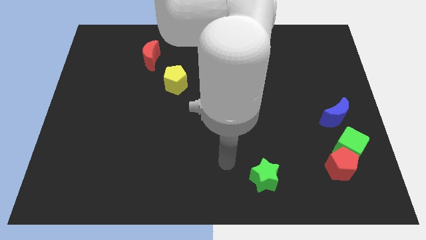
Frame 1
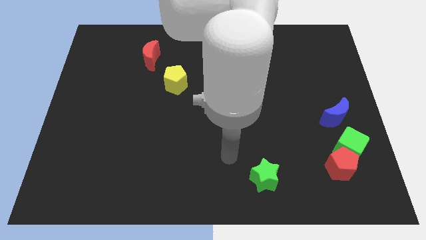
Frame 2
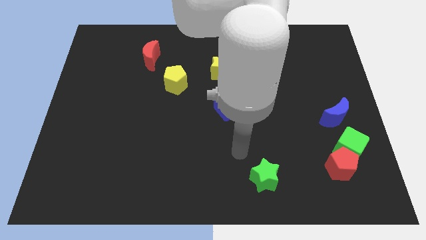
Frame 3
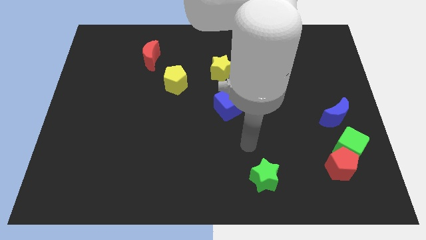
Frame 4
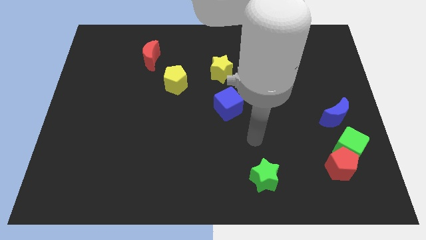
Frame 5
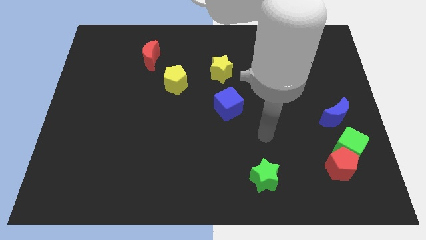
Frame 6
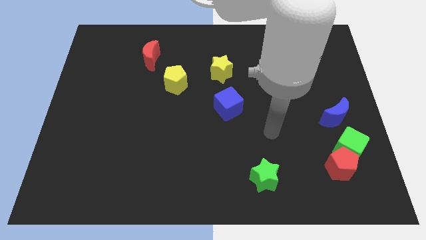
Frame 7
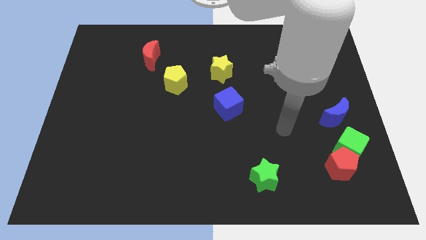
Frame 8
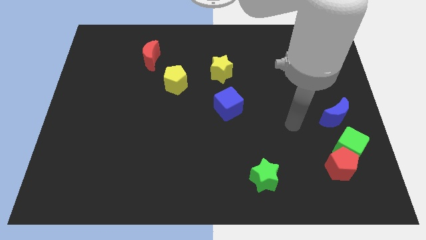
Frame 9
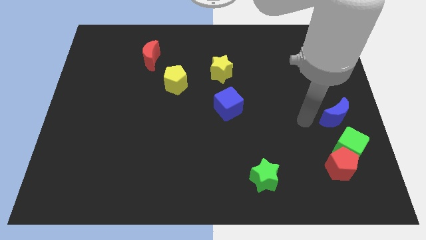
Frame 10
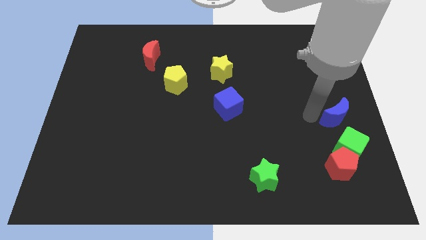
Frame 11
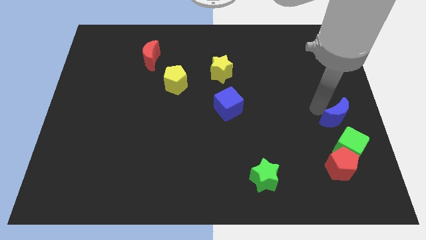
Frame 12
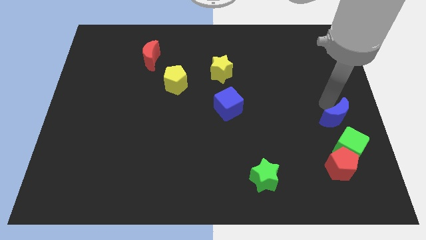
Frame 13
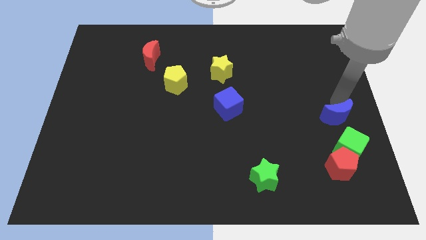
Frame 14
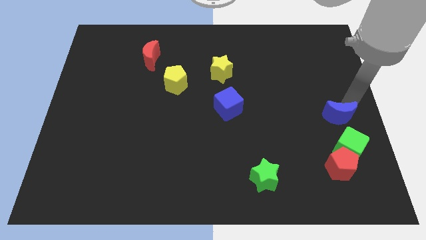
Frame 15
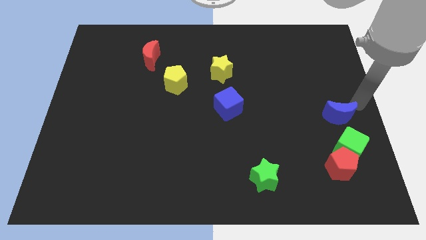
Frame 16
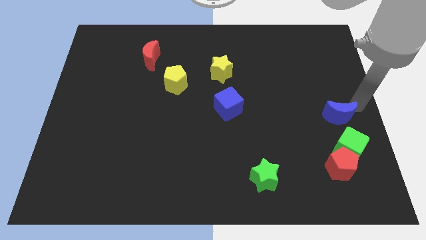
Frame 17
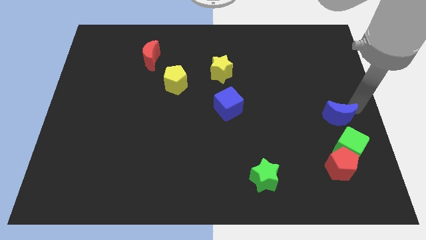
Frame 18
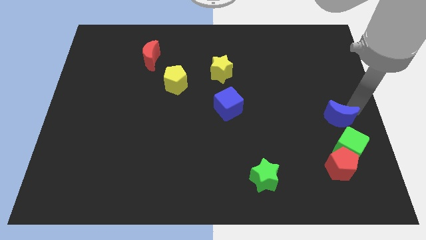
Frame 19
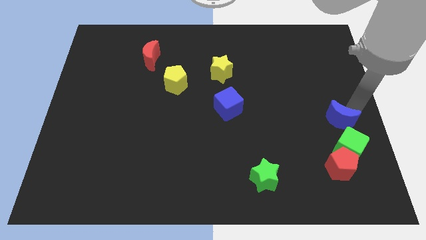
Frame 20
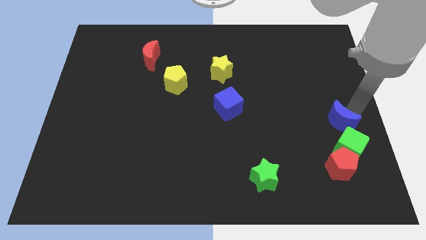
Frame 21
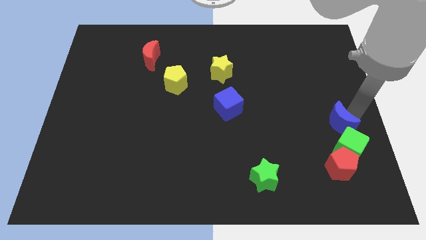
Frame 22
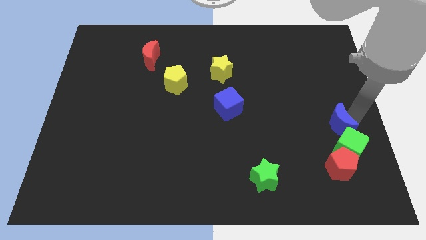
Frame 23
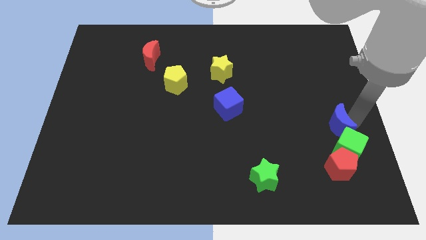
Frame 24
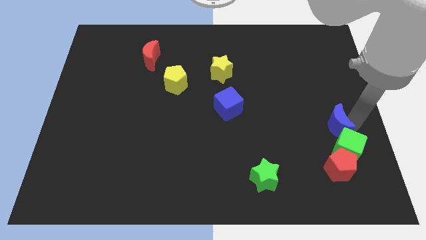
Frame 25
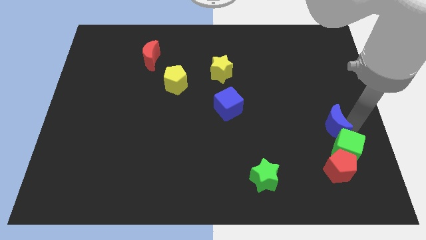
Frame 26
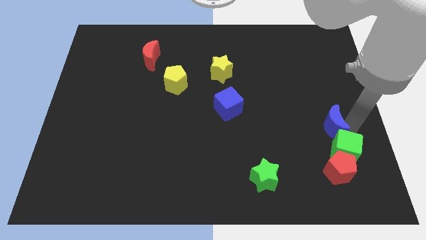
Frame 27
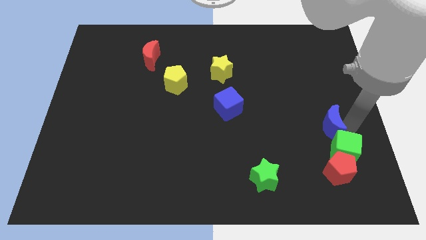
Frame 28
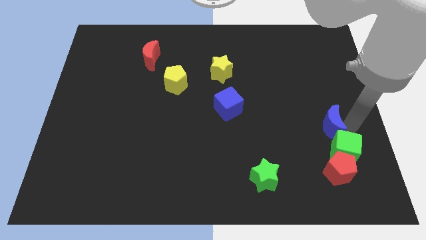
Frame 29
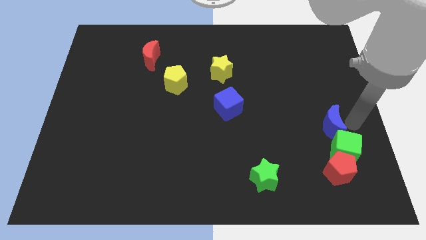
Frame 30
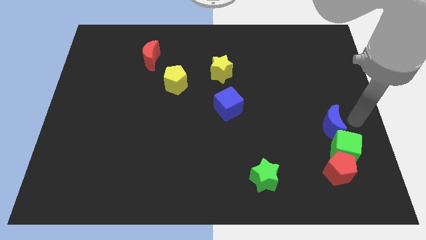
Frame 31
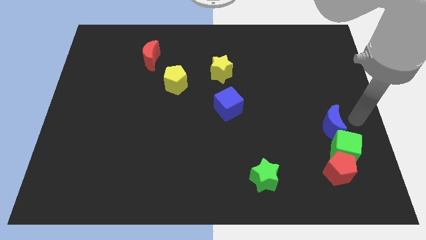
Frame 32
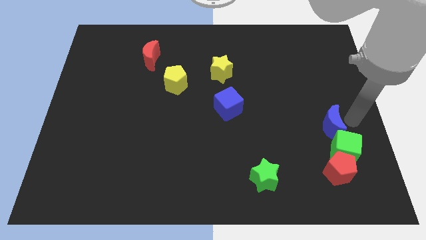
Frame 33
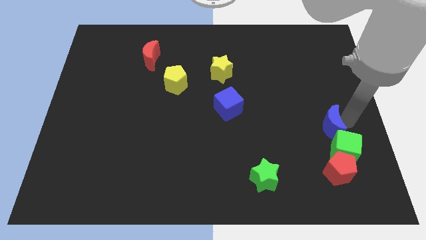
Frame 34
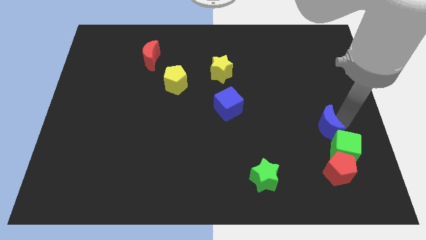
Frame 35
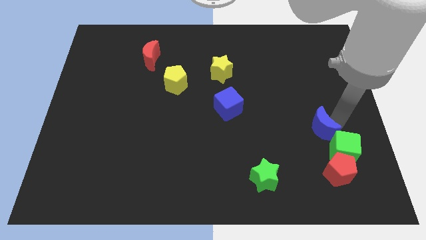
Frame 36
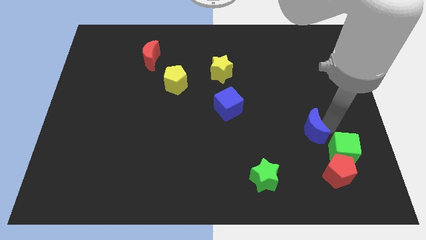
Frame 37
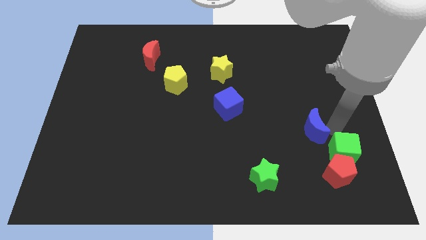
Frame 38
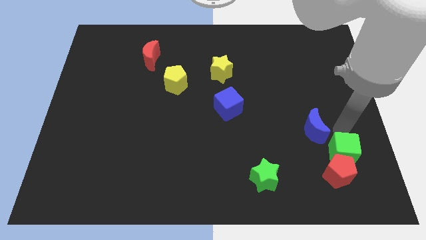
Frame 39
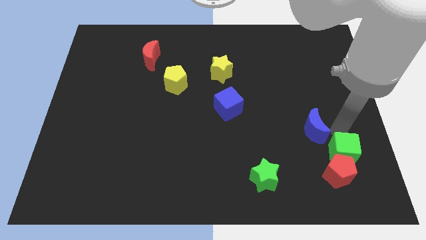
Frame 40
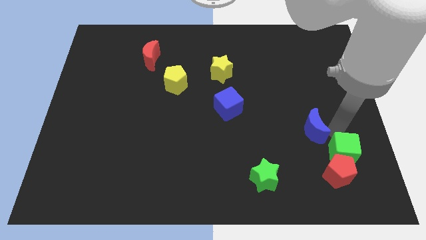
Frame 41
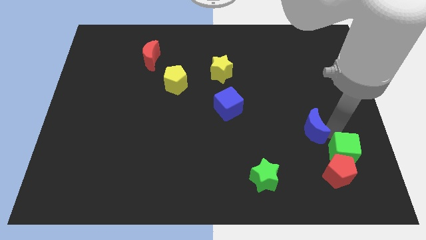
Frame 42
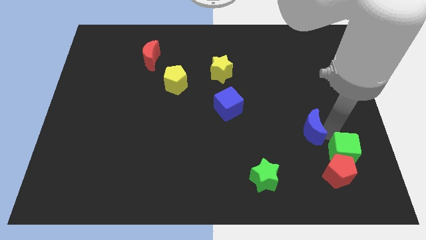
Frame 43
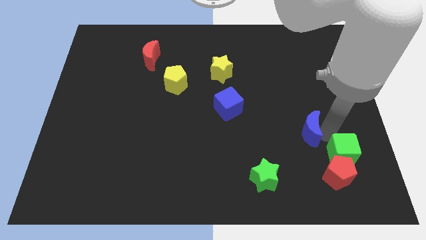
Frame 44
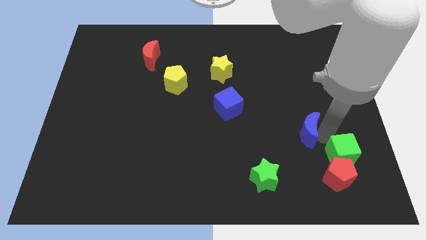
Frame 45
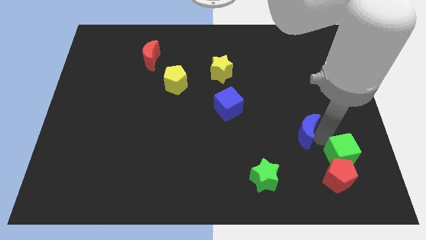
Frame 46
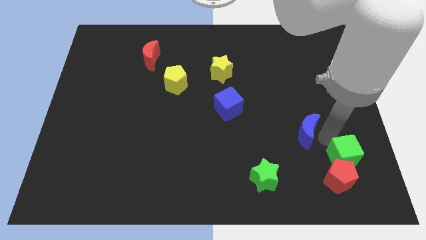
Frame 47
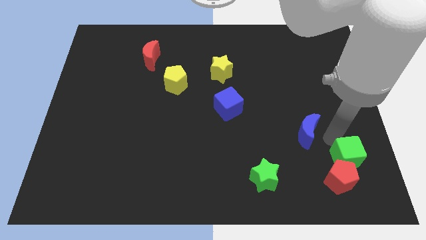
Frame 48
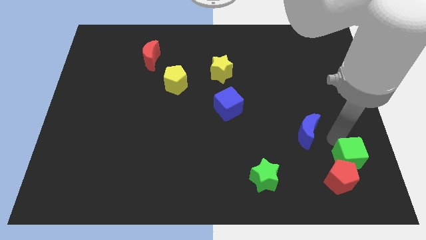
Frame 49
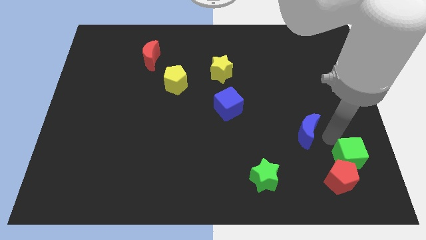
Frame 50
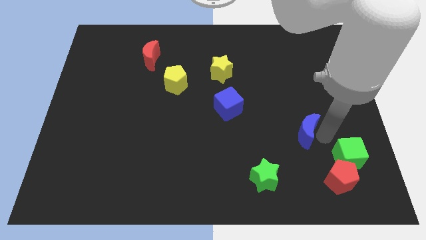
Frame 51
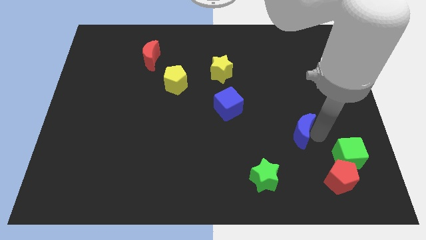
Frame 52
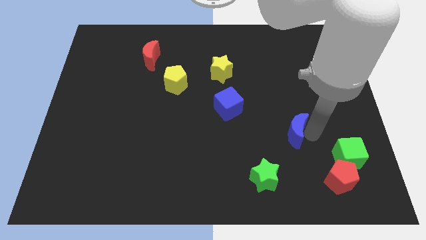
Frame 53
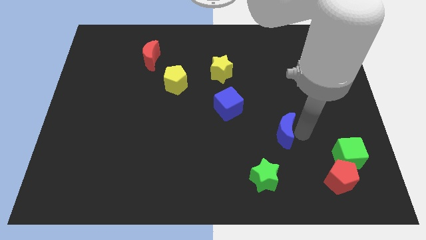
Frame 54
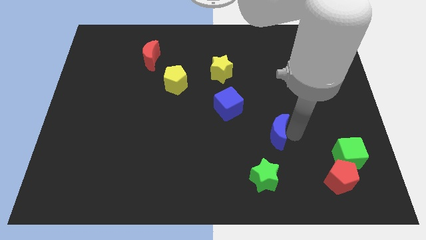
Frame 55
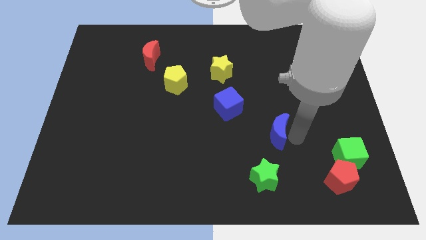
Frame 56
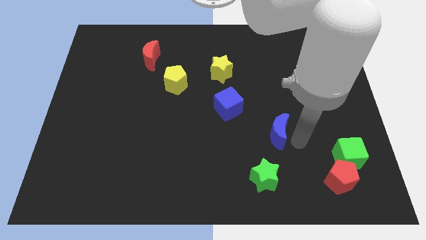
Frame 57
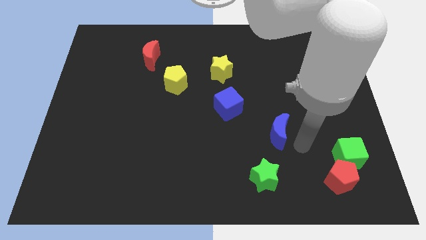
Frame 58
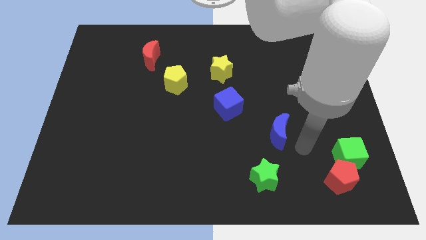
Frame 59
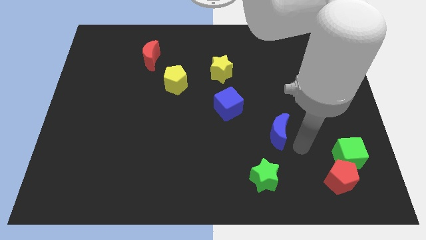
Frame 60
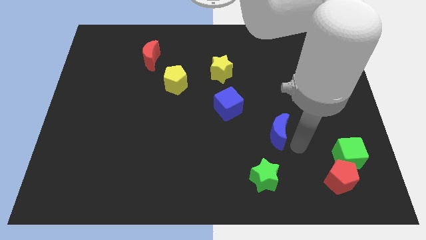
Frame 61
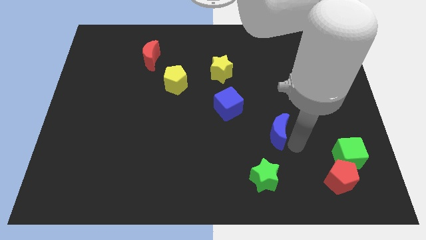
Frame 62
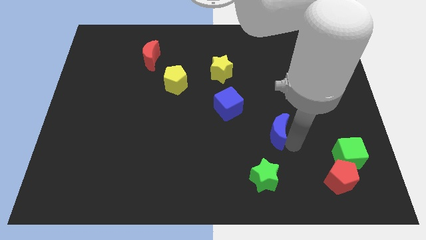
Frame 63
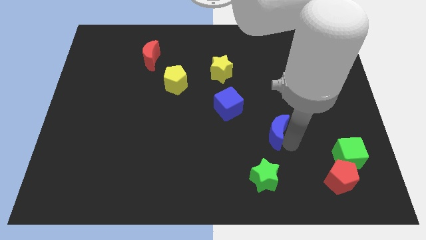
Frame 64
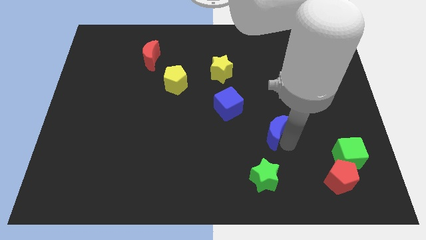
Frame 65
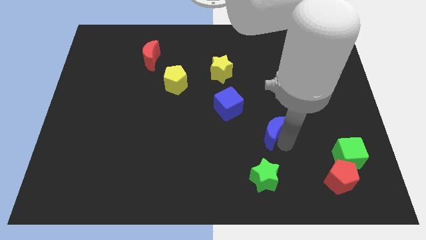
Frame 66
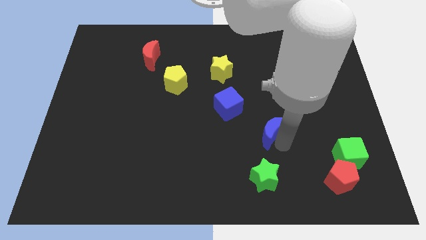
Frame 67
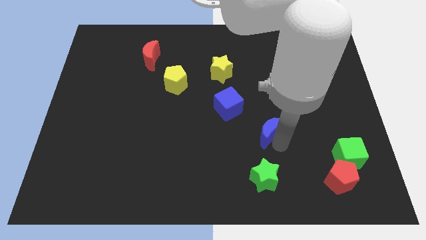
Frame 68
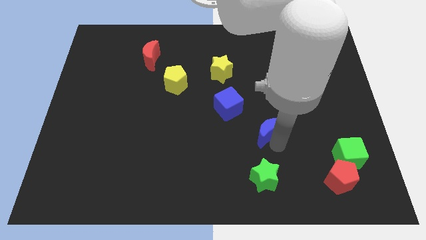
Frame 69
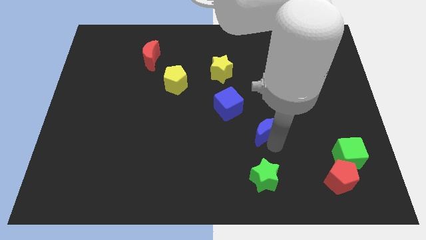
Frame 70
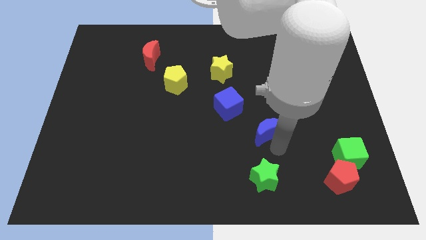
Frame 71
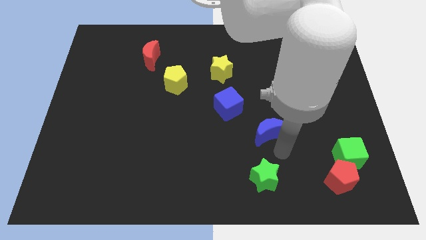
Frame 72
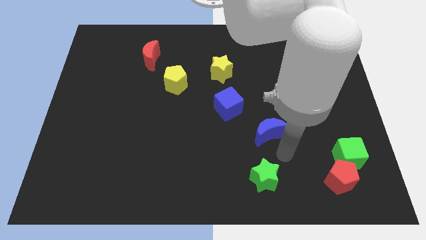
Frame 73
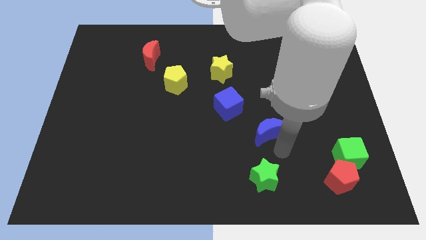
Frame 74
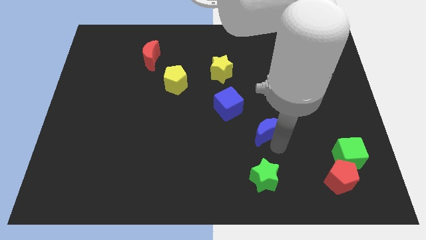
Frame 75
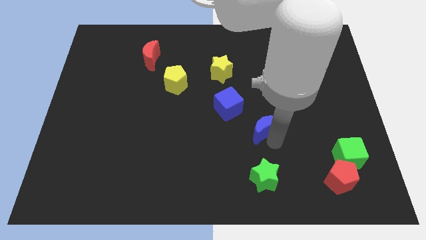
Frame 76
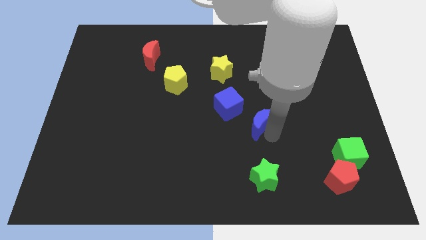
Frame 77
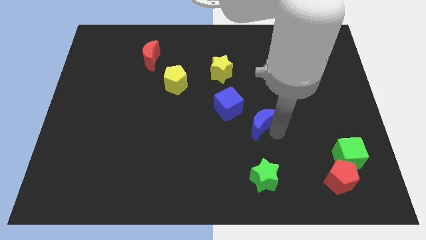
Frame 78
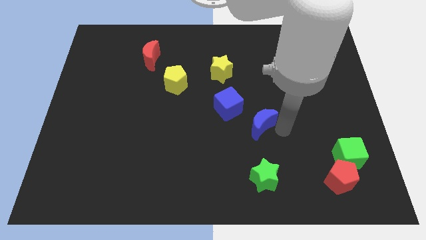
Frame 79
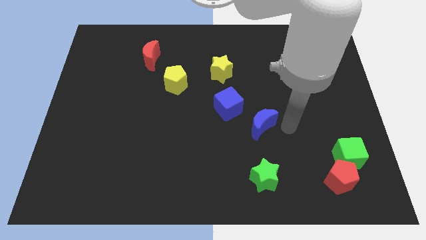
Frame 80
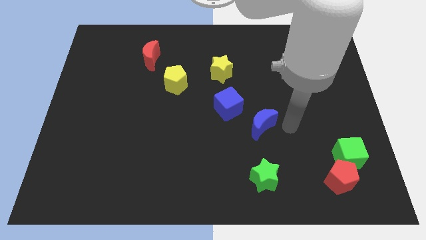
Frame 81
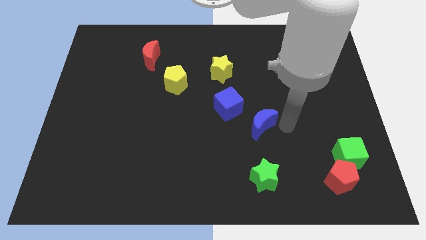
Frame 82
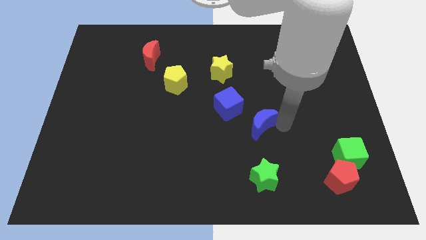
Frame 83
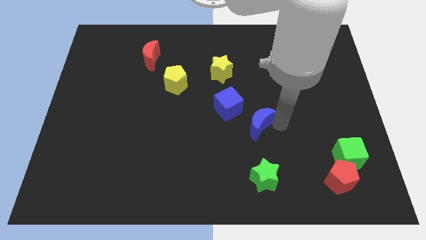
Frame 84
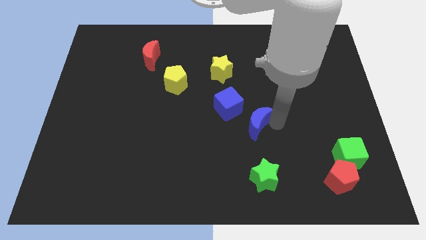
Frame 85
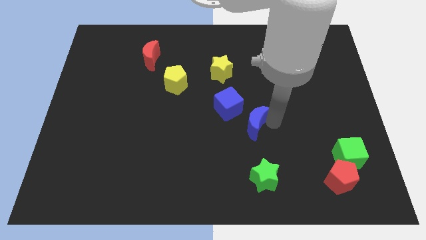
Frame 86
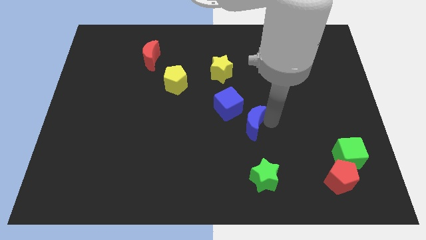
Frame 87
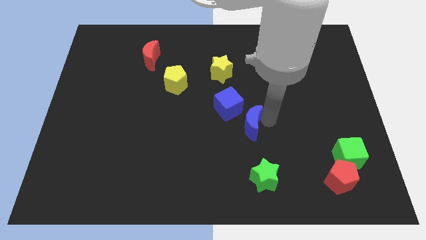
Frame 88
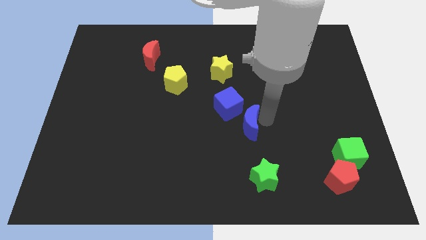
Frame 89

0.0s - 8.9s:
slide the blue moon left
